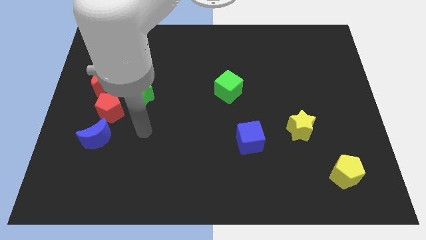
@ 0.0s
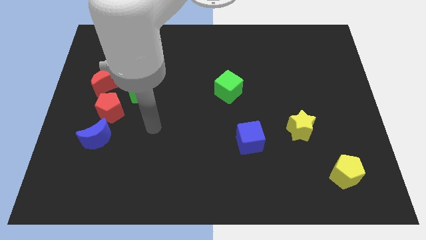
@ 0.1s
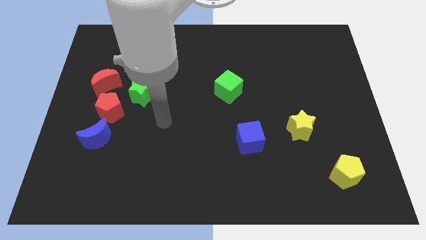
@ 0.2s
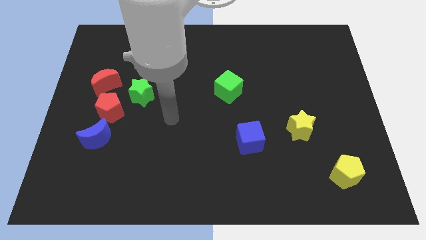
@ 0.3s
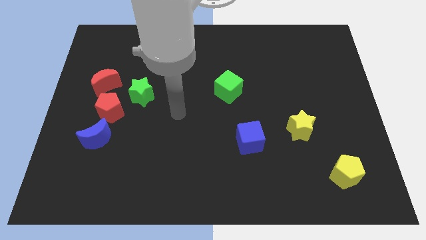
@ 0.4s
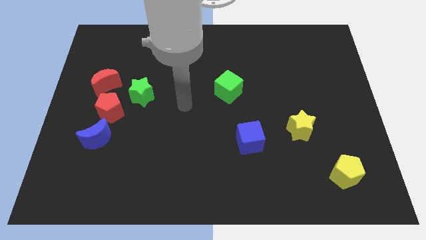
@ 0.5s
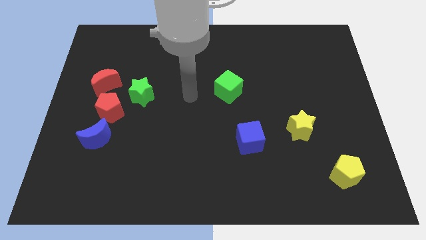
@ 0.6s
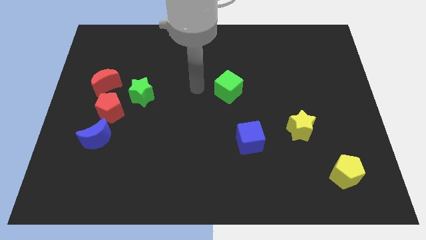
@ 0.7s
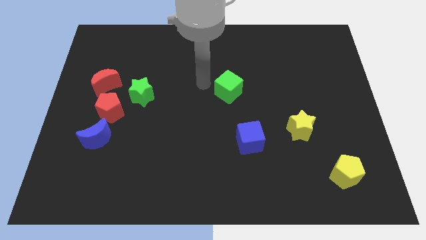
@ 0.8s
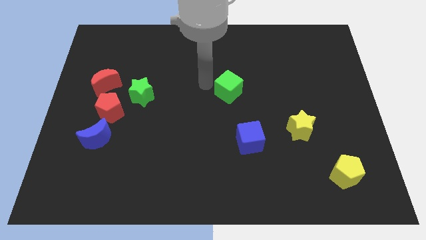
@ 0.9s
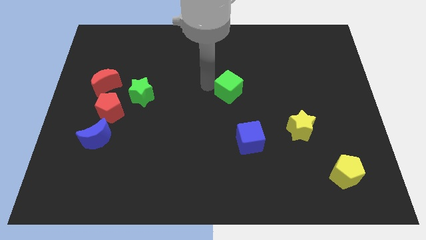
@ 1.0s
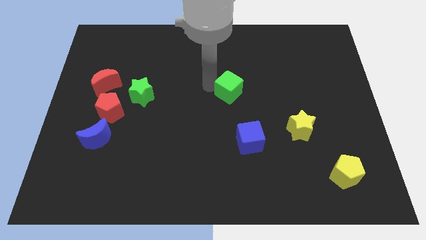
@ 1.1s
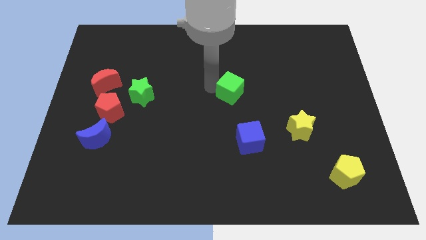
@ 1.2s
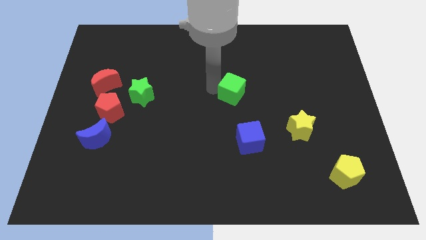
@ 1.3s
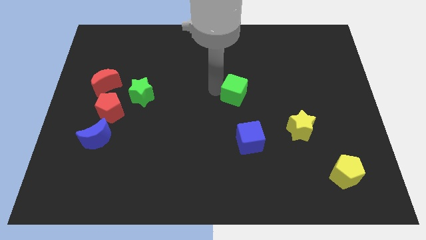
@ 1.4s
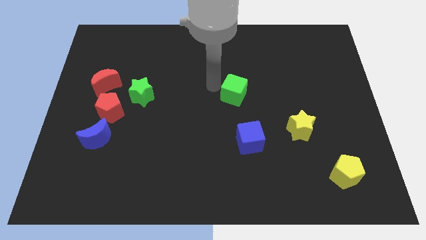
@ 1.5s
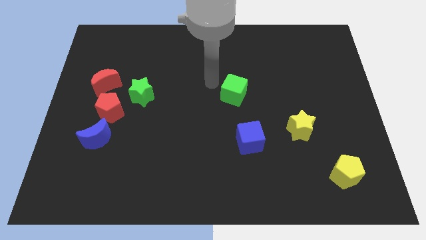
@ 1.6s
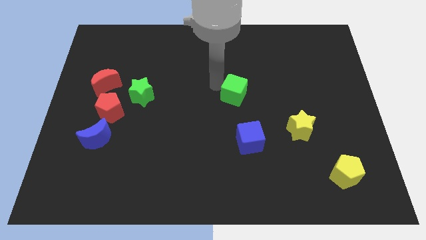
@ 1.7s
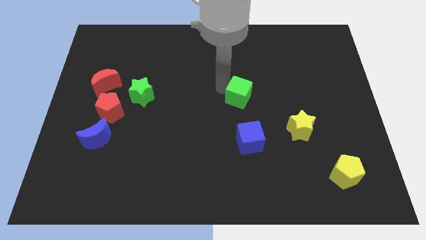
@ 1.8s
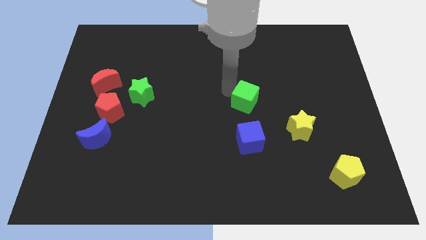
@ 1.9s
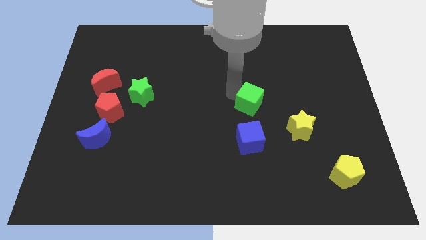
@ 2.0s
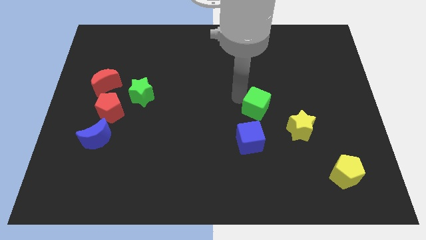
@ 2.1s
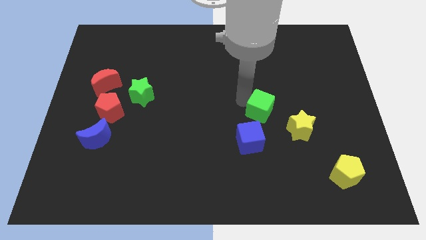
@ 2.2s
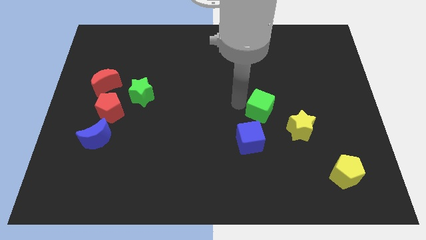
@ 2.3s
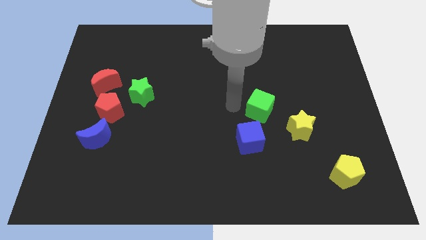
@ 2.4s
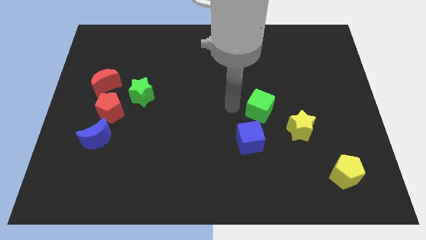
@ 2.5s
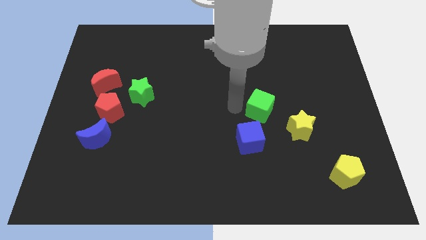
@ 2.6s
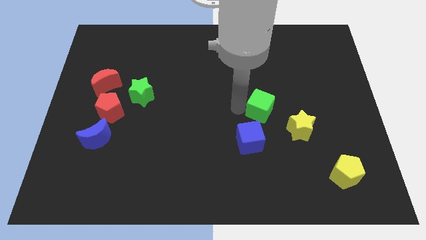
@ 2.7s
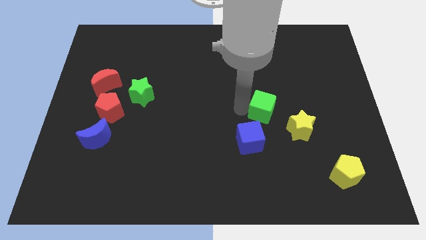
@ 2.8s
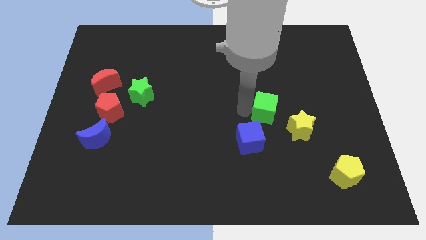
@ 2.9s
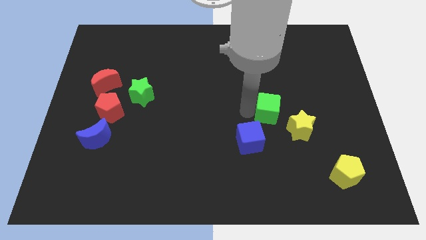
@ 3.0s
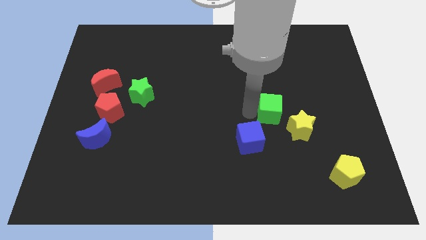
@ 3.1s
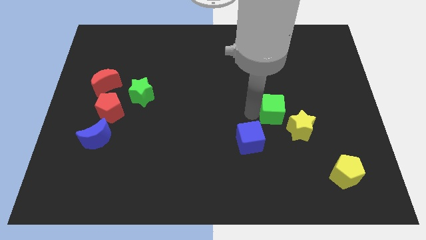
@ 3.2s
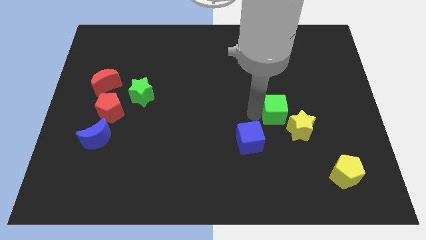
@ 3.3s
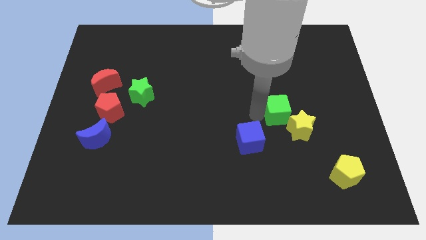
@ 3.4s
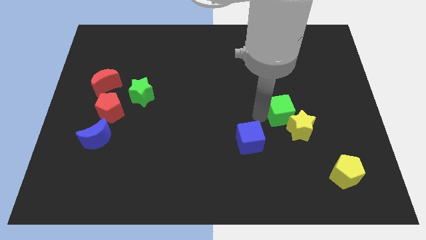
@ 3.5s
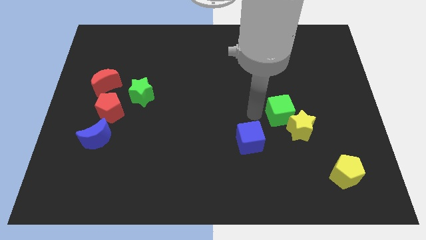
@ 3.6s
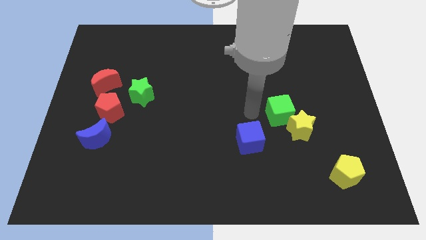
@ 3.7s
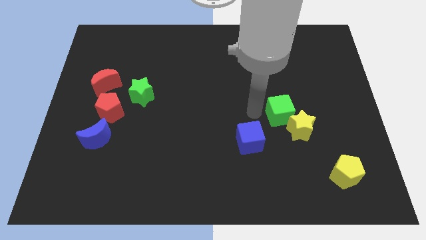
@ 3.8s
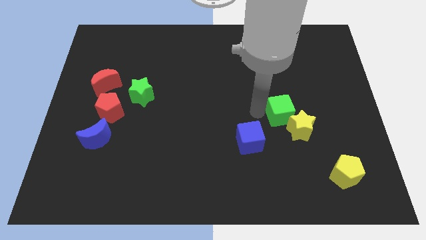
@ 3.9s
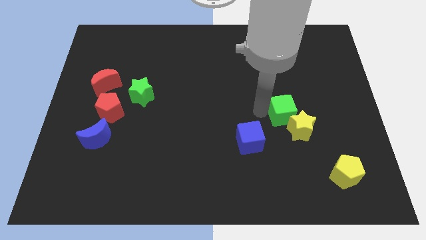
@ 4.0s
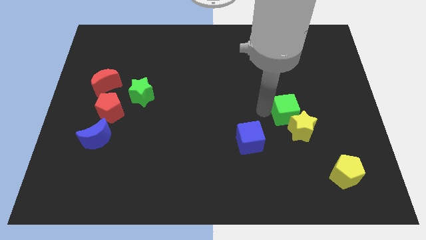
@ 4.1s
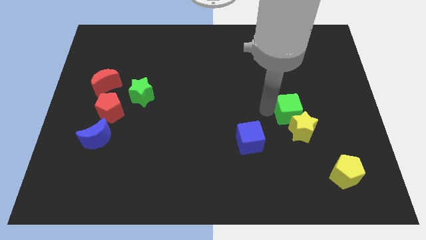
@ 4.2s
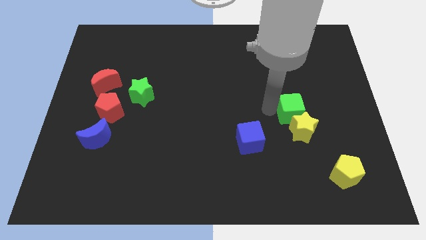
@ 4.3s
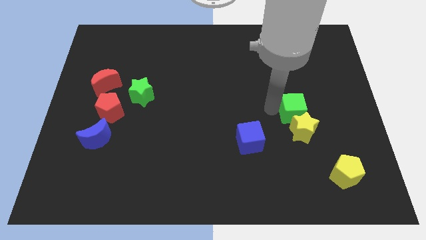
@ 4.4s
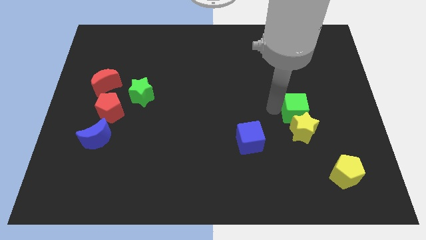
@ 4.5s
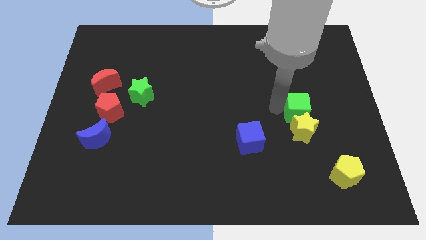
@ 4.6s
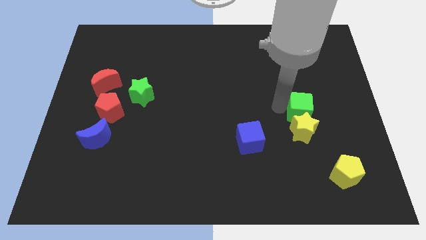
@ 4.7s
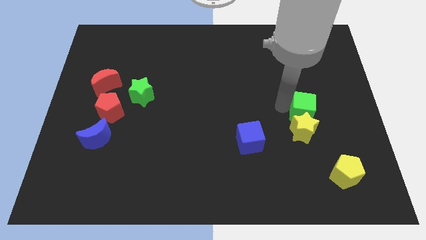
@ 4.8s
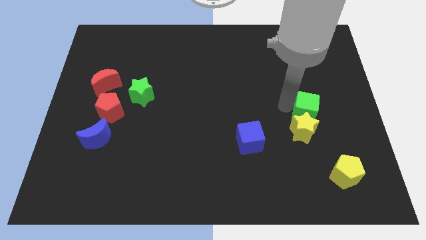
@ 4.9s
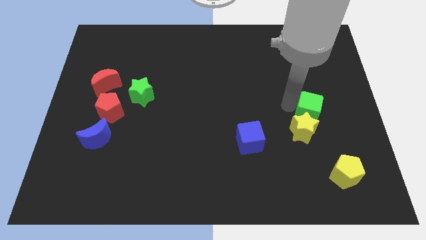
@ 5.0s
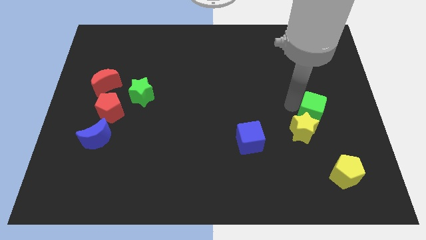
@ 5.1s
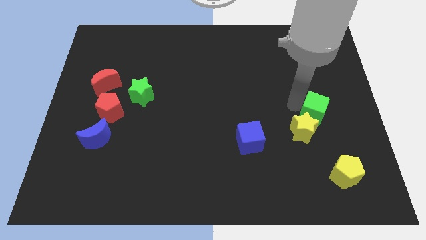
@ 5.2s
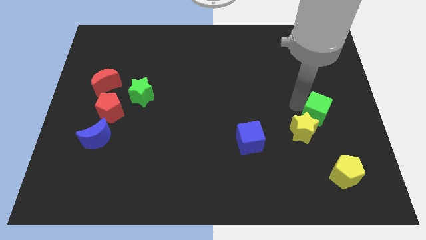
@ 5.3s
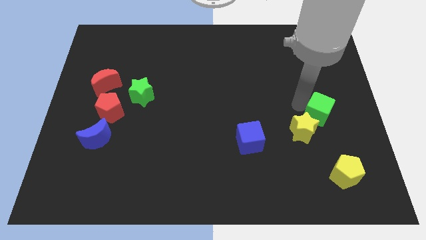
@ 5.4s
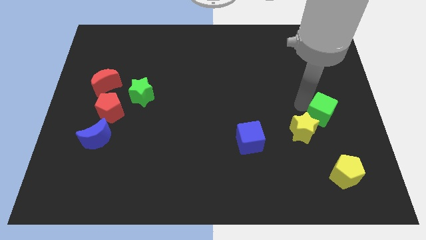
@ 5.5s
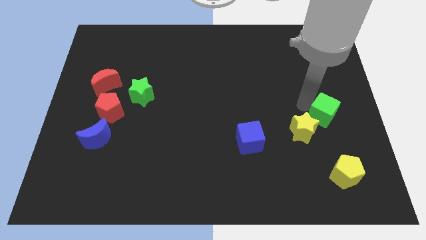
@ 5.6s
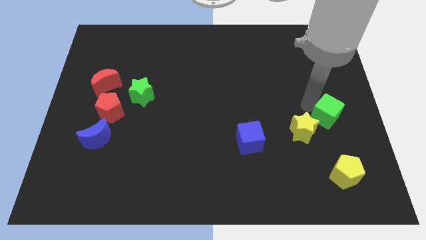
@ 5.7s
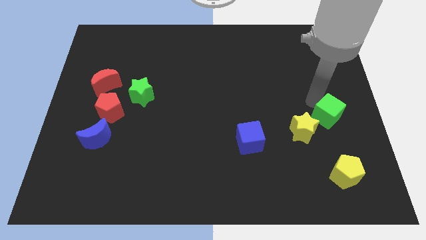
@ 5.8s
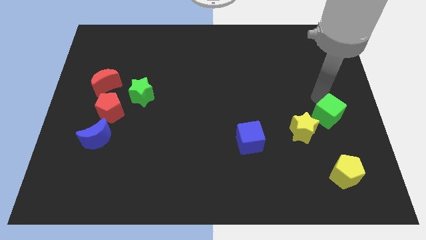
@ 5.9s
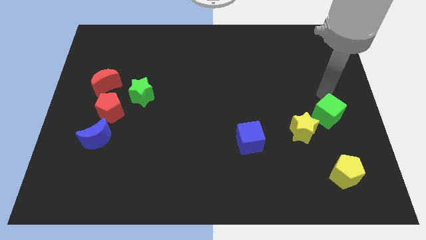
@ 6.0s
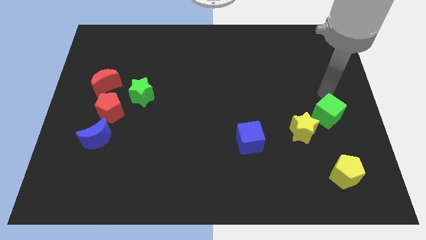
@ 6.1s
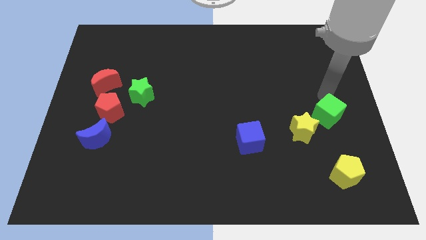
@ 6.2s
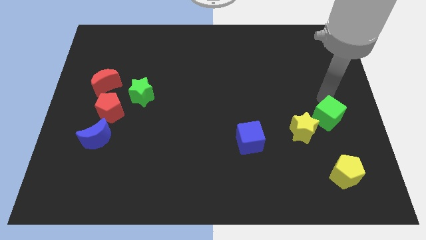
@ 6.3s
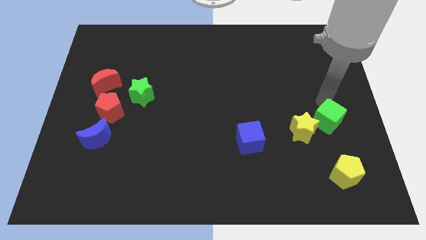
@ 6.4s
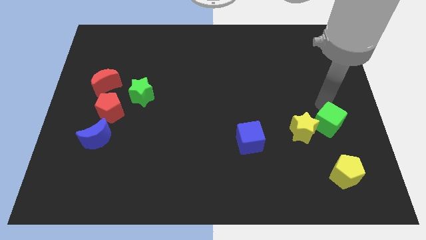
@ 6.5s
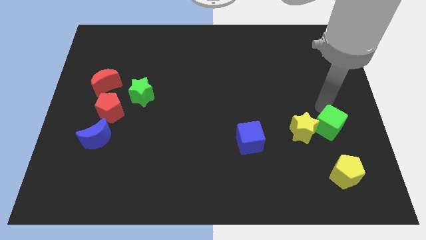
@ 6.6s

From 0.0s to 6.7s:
move the green cube to the bottom right of the yellow star
